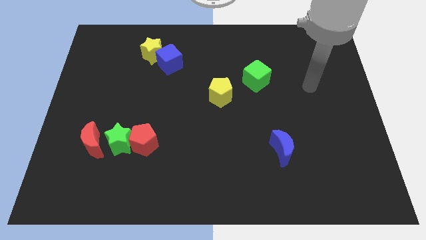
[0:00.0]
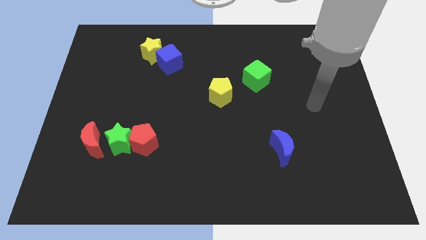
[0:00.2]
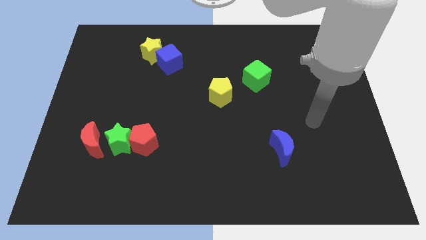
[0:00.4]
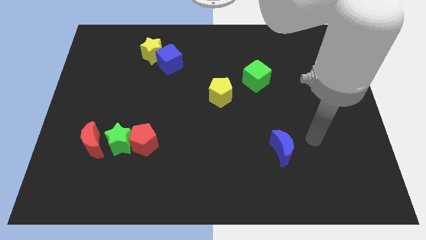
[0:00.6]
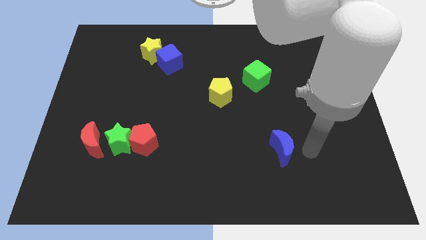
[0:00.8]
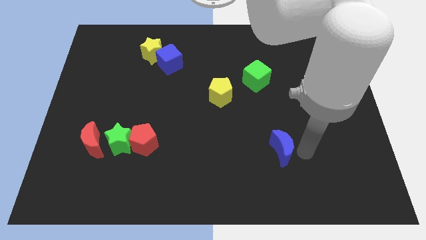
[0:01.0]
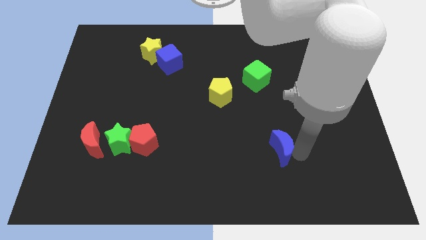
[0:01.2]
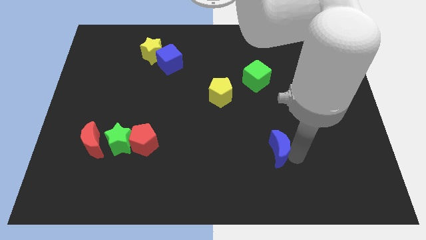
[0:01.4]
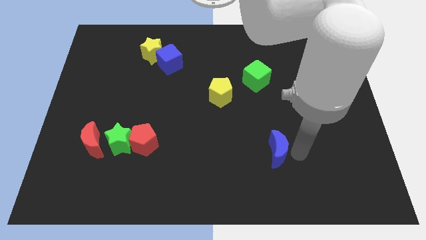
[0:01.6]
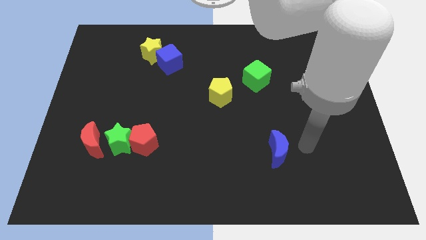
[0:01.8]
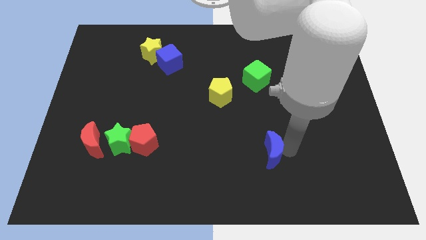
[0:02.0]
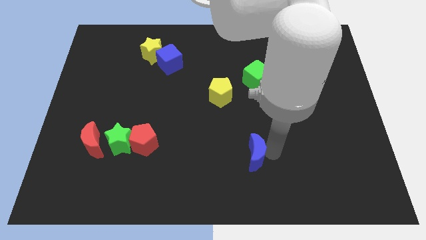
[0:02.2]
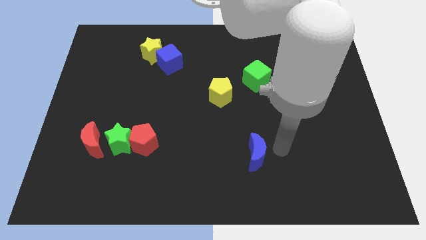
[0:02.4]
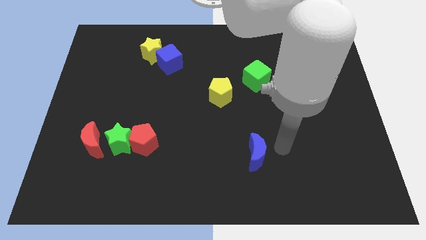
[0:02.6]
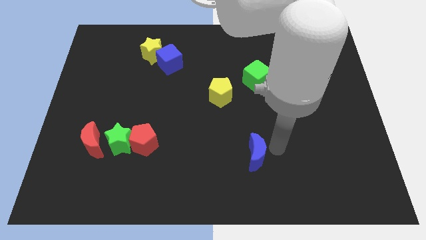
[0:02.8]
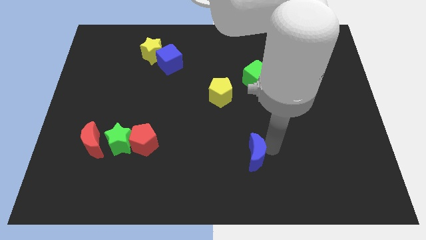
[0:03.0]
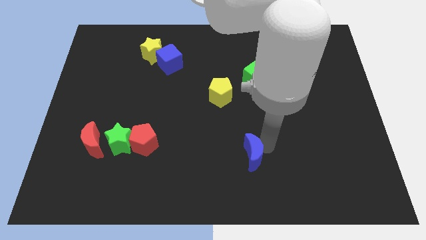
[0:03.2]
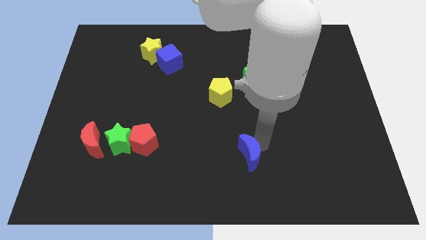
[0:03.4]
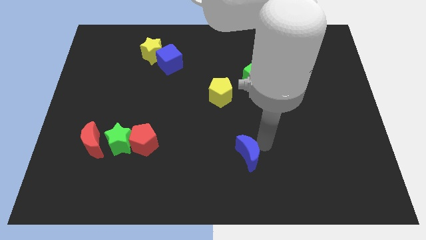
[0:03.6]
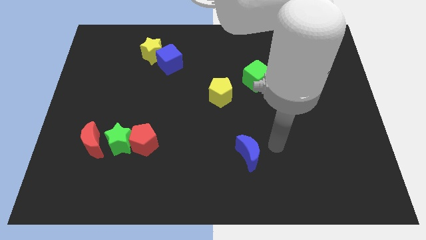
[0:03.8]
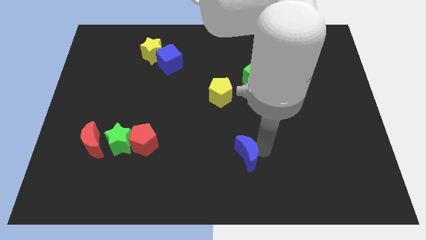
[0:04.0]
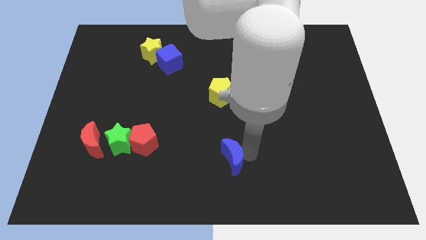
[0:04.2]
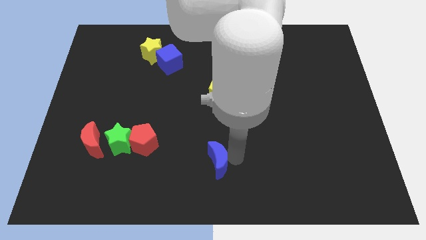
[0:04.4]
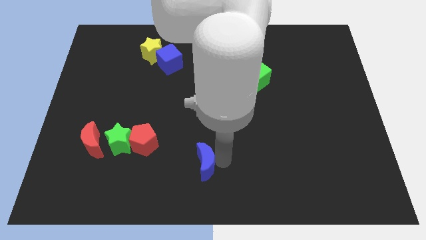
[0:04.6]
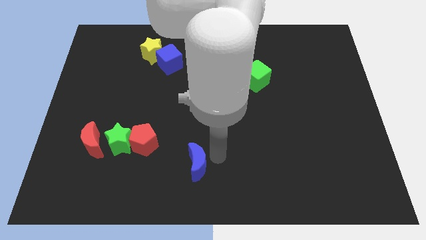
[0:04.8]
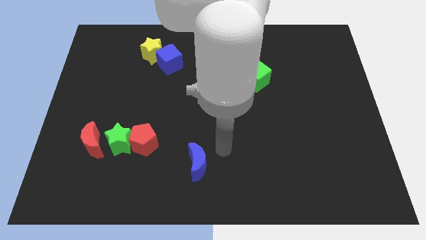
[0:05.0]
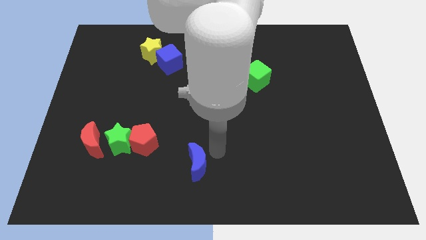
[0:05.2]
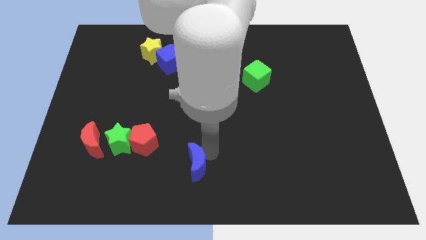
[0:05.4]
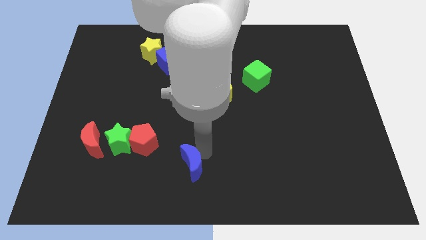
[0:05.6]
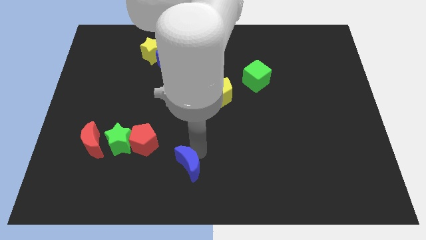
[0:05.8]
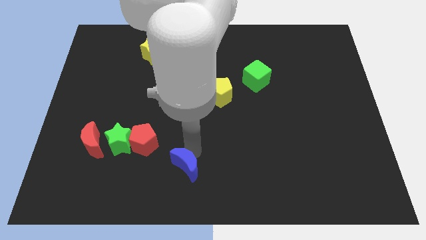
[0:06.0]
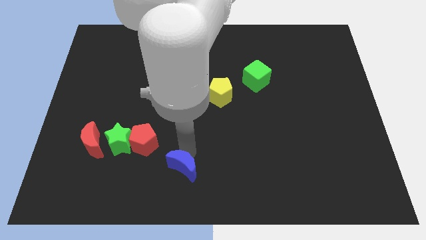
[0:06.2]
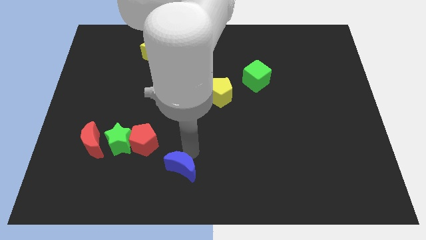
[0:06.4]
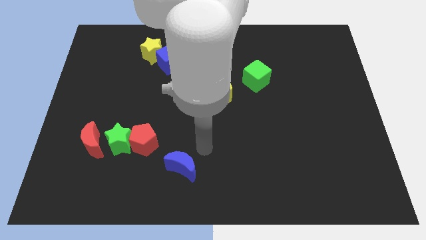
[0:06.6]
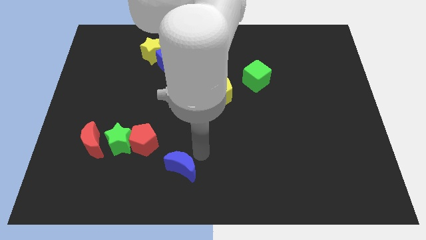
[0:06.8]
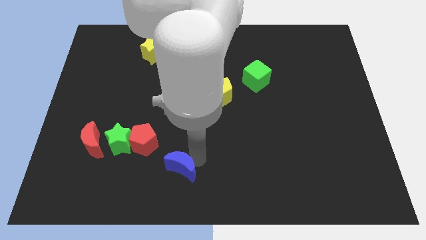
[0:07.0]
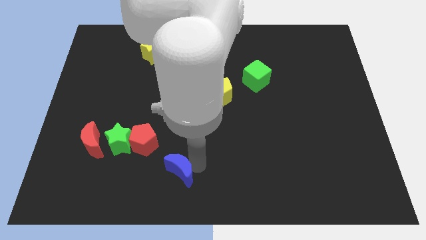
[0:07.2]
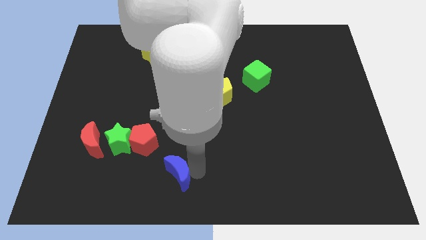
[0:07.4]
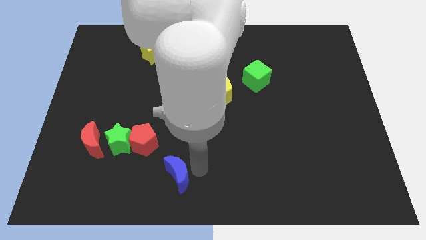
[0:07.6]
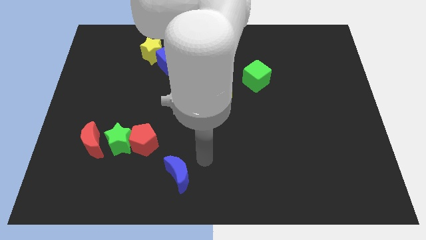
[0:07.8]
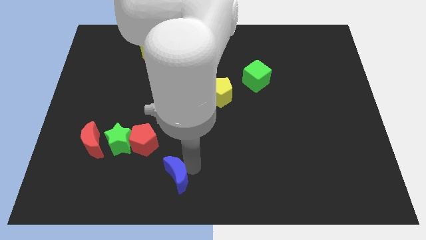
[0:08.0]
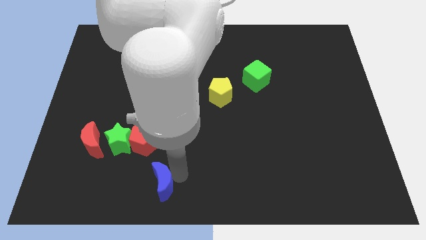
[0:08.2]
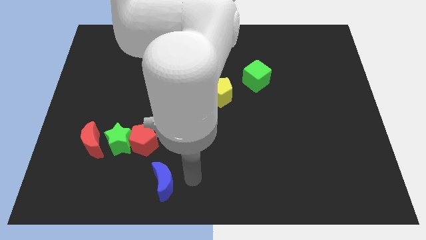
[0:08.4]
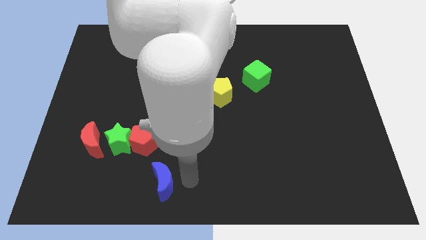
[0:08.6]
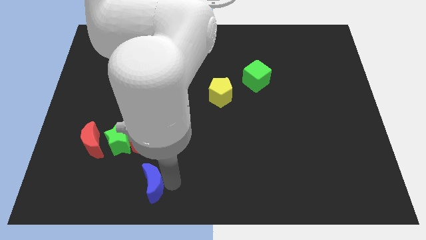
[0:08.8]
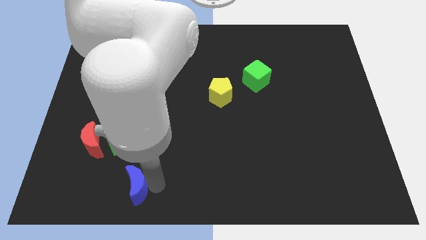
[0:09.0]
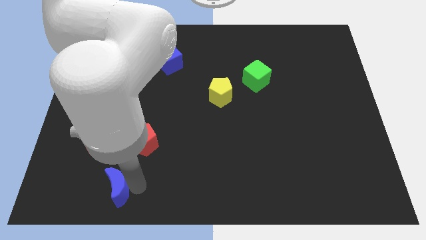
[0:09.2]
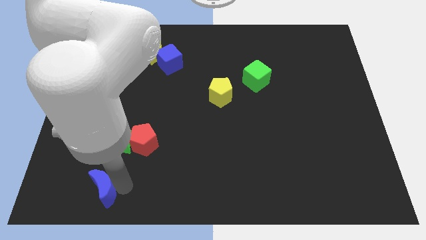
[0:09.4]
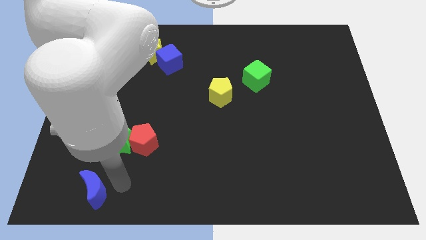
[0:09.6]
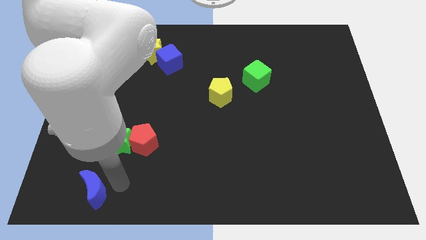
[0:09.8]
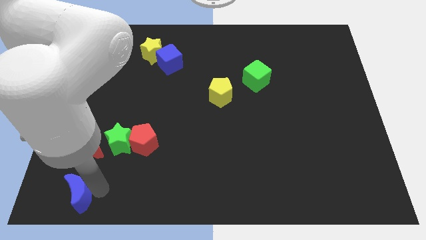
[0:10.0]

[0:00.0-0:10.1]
push the blue moon to the bottom left corner
